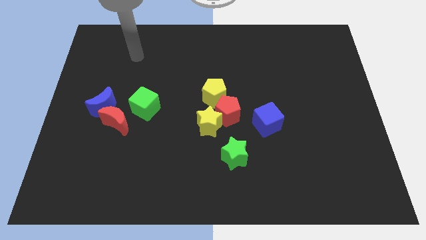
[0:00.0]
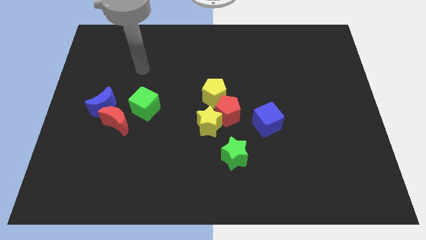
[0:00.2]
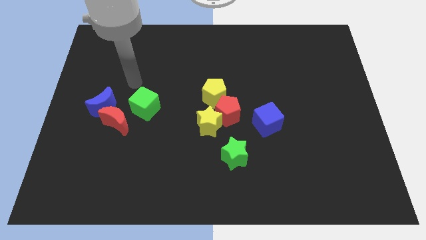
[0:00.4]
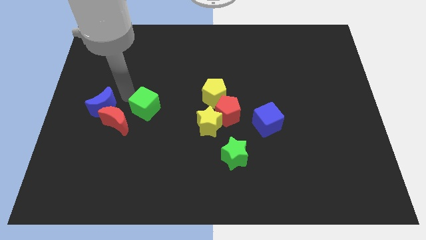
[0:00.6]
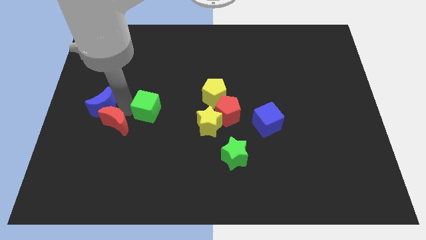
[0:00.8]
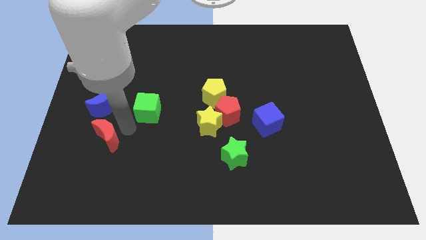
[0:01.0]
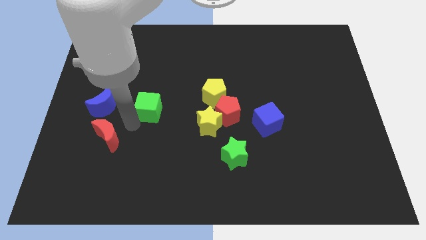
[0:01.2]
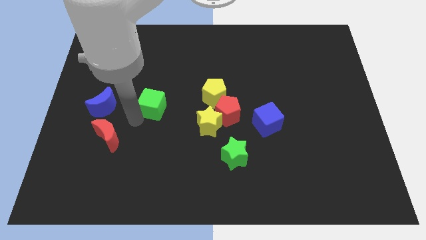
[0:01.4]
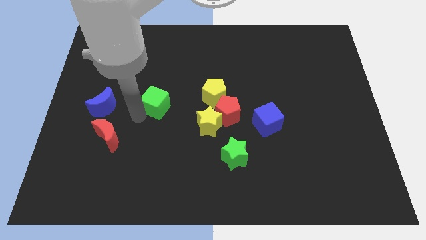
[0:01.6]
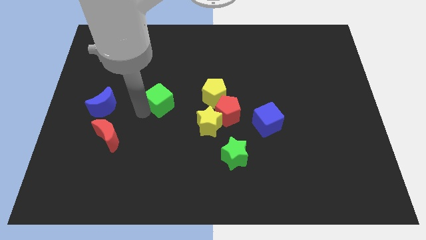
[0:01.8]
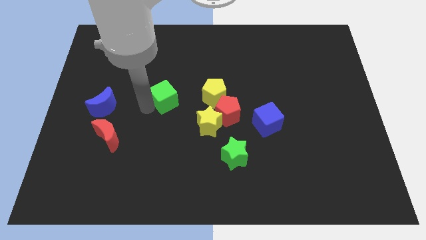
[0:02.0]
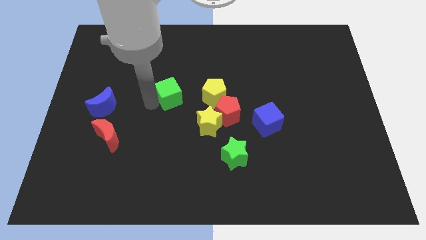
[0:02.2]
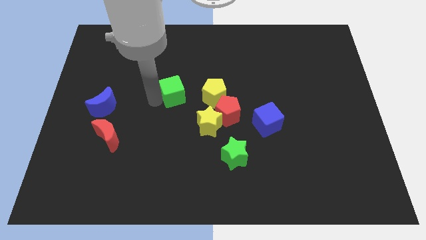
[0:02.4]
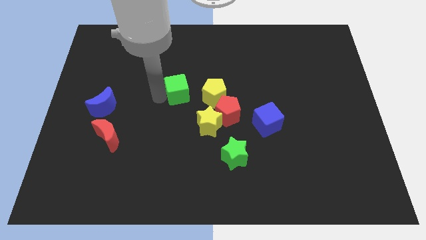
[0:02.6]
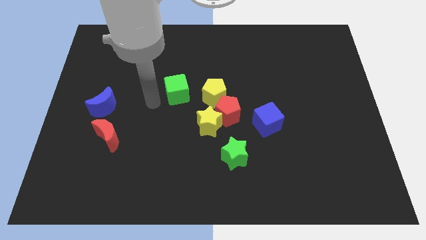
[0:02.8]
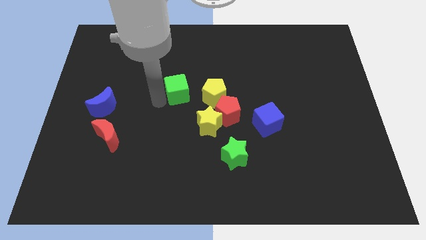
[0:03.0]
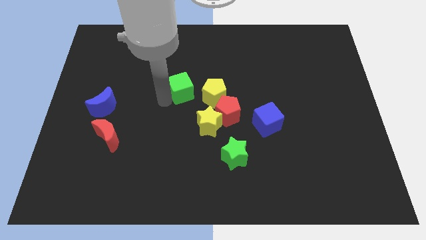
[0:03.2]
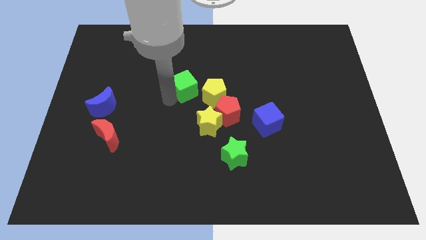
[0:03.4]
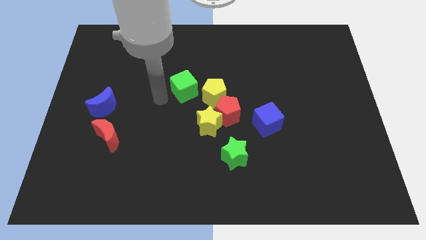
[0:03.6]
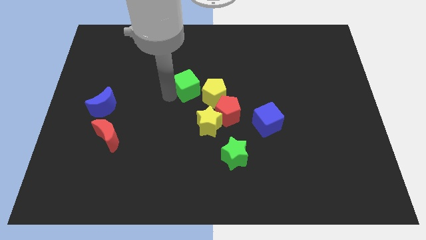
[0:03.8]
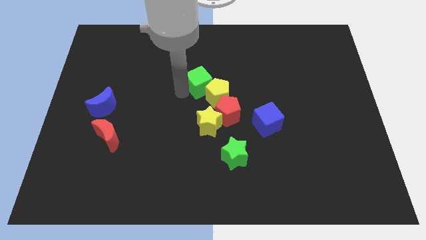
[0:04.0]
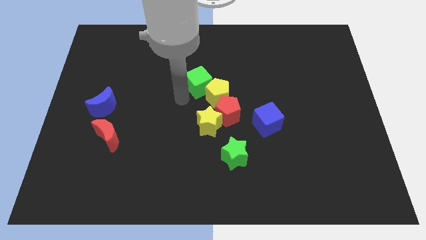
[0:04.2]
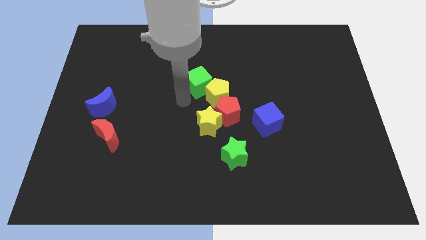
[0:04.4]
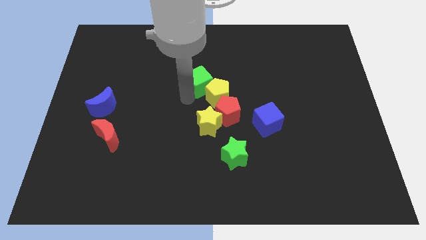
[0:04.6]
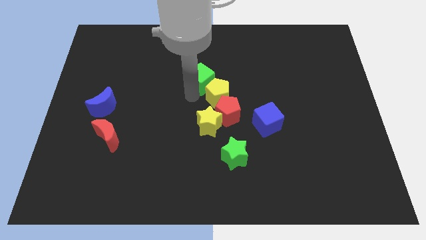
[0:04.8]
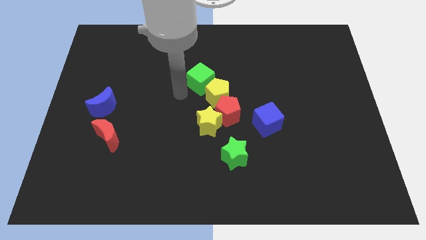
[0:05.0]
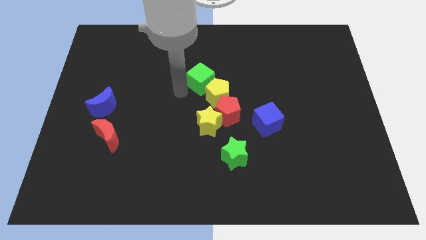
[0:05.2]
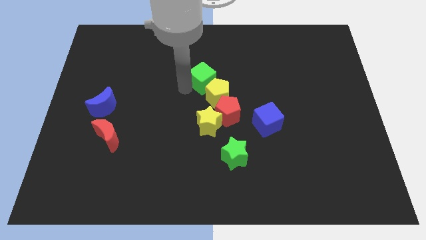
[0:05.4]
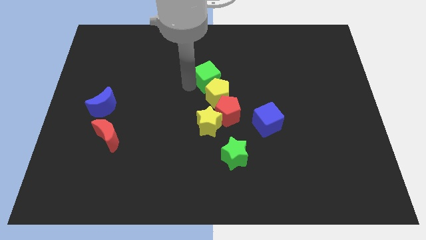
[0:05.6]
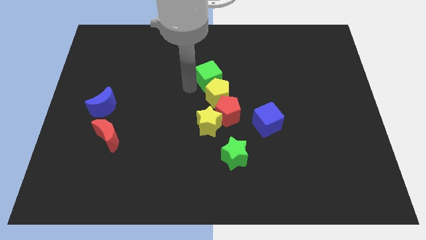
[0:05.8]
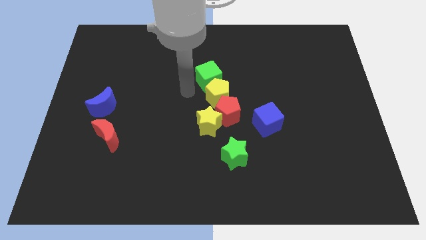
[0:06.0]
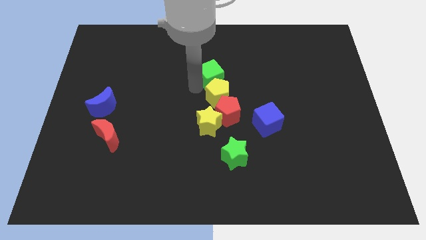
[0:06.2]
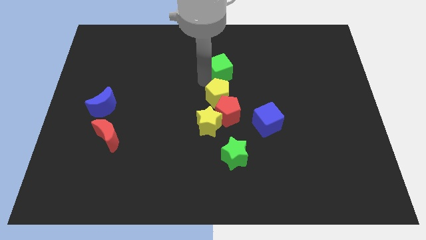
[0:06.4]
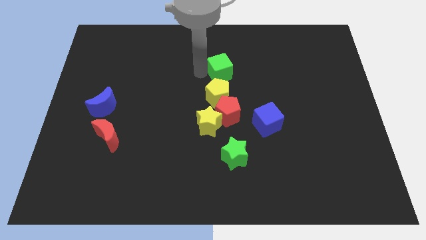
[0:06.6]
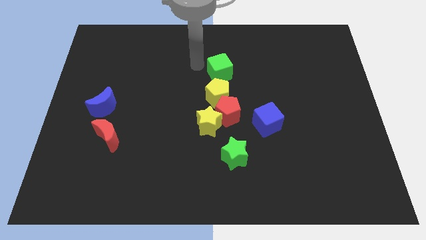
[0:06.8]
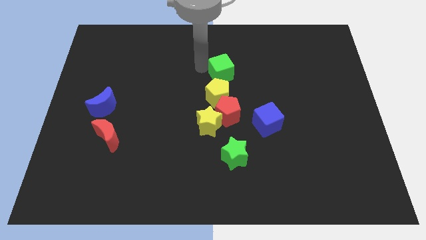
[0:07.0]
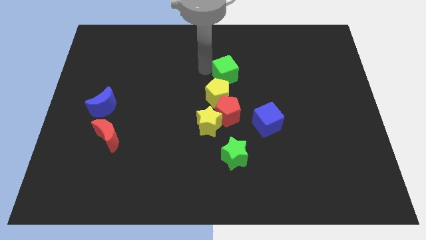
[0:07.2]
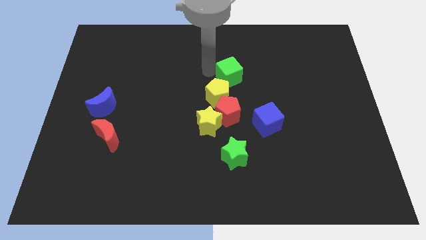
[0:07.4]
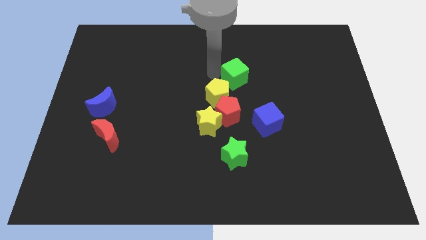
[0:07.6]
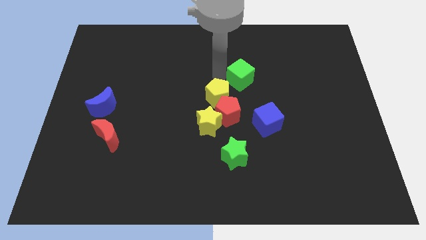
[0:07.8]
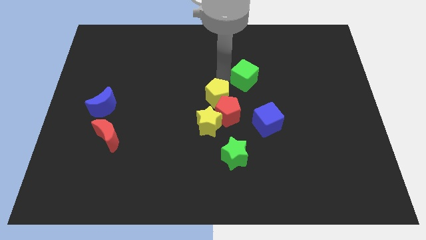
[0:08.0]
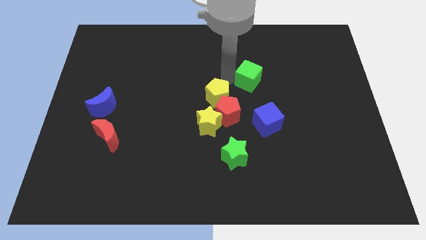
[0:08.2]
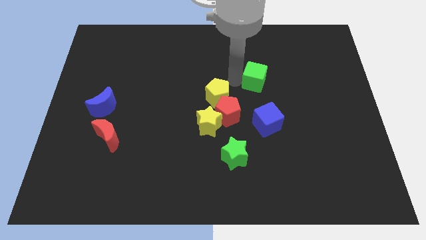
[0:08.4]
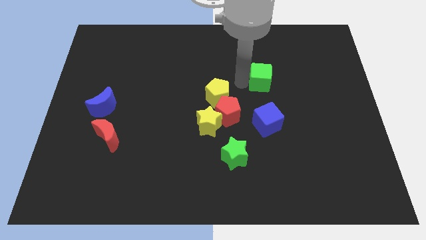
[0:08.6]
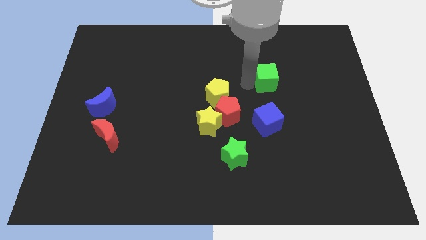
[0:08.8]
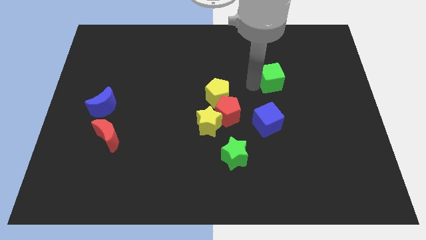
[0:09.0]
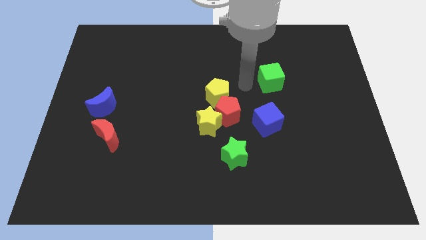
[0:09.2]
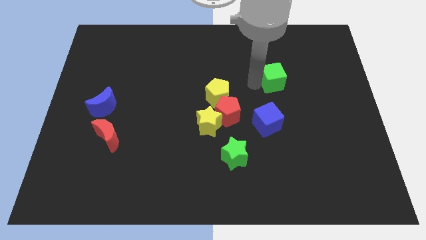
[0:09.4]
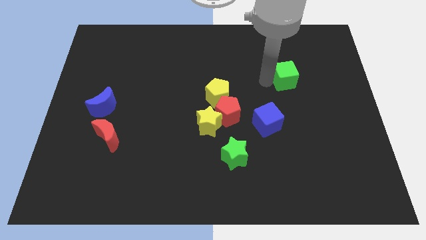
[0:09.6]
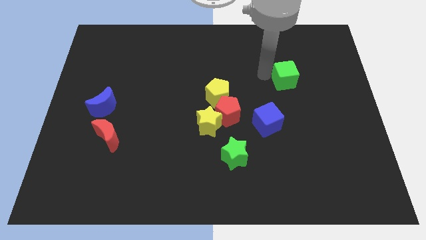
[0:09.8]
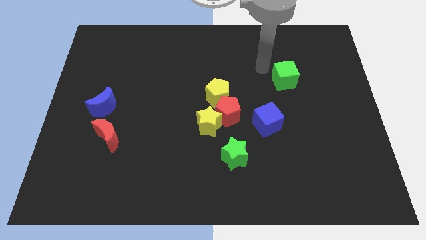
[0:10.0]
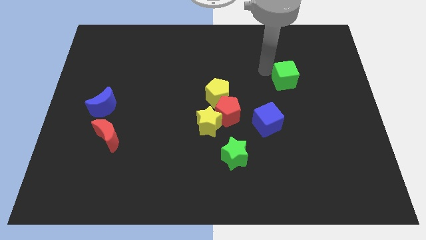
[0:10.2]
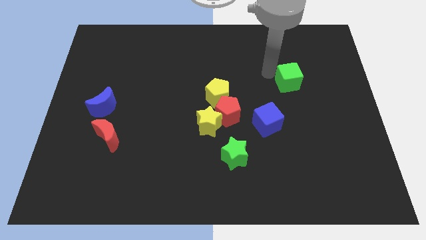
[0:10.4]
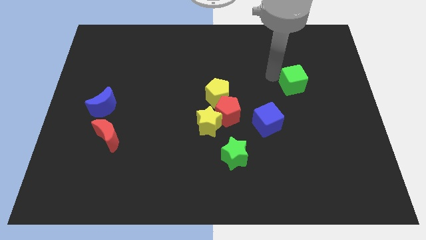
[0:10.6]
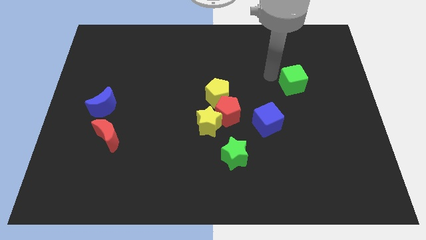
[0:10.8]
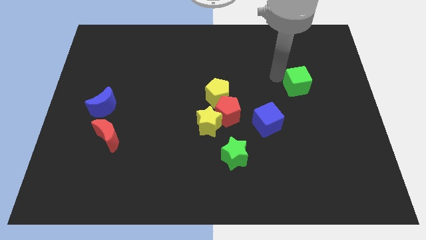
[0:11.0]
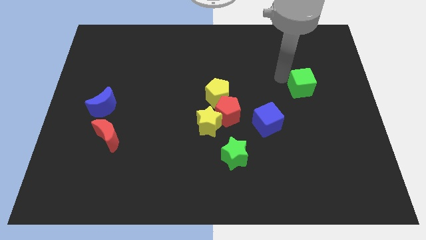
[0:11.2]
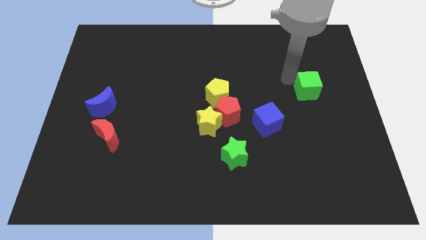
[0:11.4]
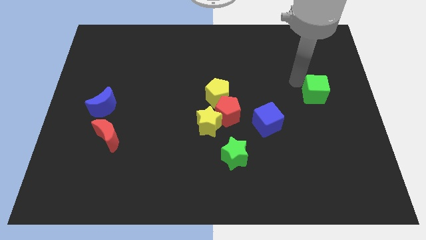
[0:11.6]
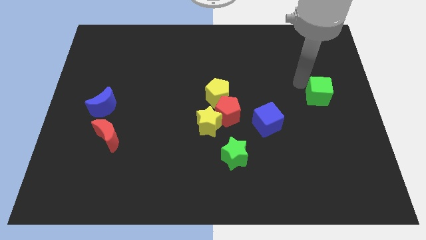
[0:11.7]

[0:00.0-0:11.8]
put the green cube to the right side of the board
